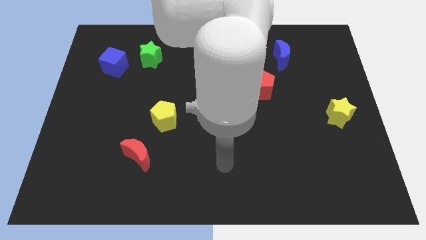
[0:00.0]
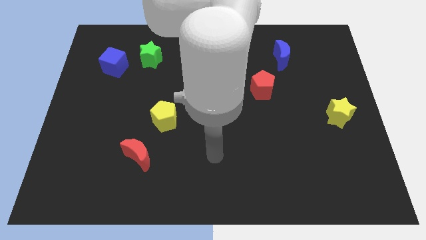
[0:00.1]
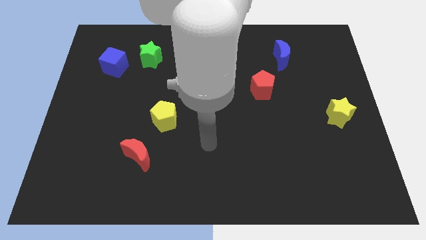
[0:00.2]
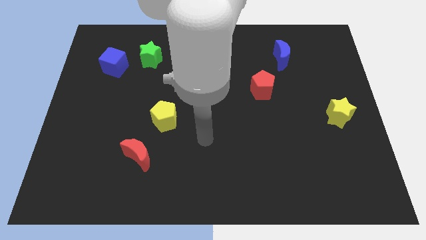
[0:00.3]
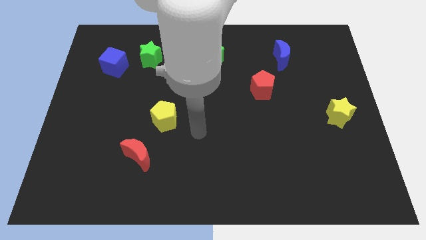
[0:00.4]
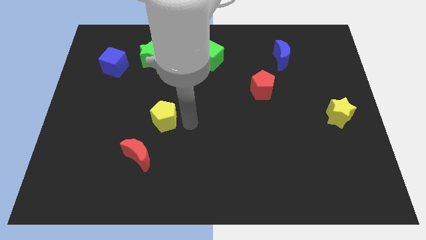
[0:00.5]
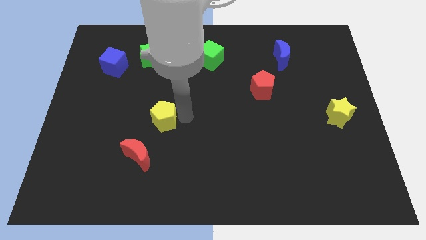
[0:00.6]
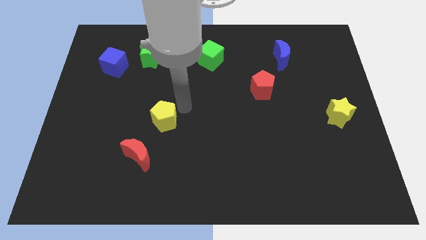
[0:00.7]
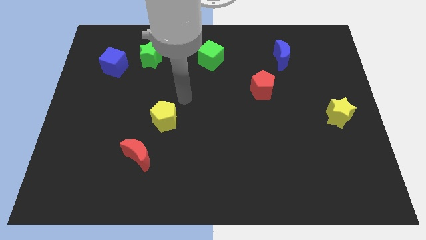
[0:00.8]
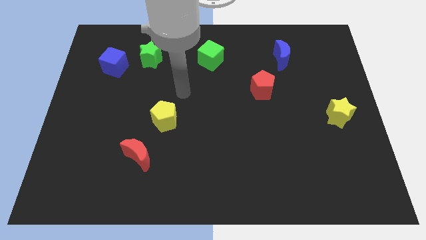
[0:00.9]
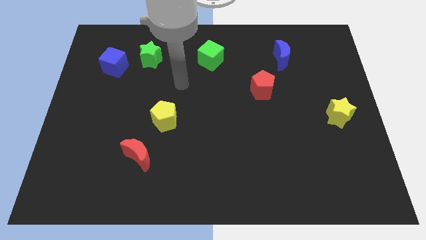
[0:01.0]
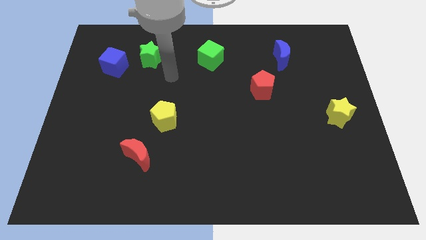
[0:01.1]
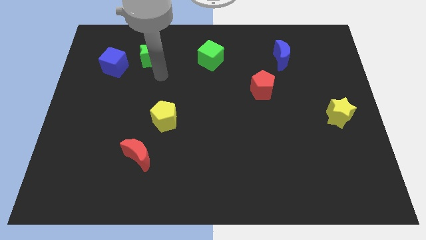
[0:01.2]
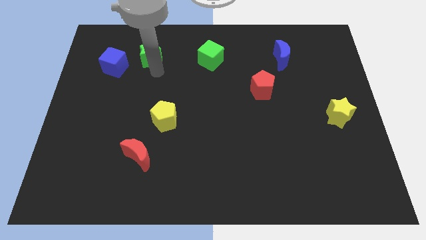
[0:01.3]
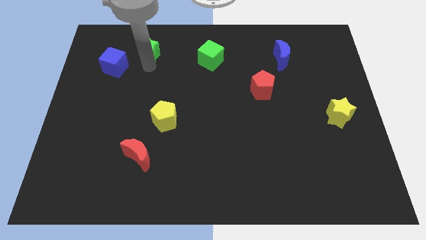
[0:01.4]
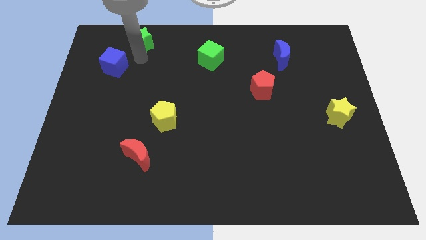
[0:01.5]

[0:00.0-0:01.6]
move the blue cube away from the green star

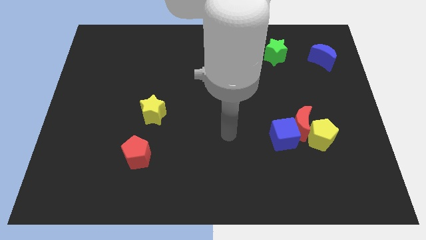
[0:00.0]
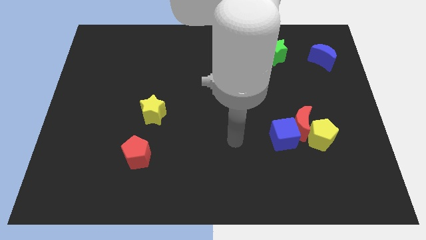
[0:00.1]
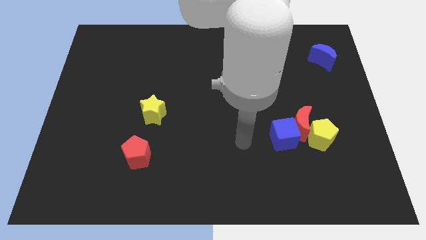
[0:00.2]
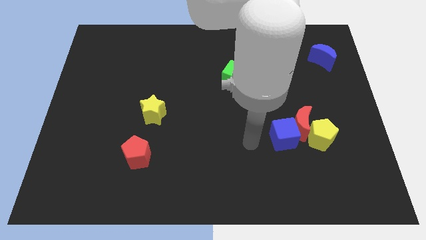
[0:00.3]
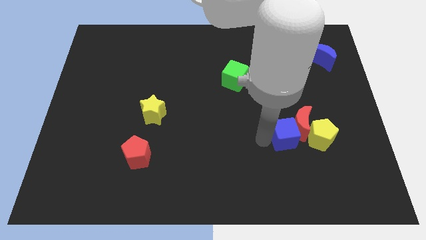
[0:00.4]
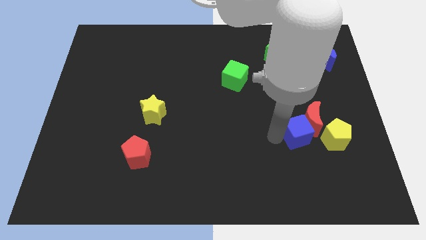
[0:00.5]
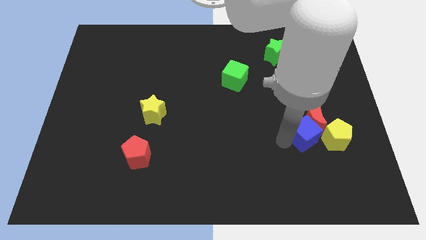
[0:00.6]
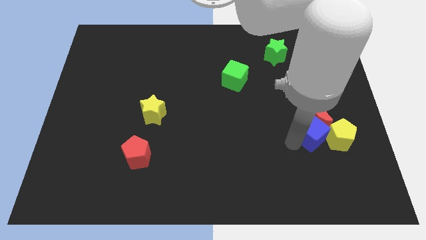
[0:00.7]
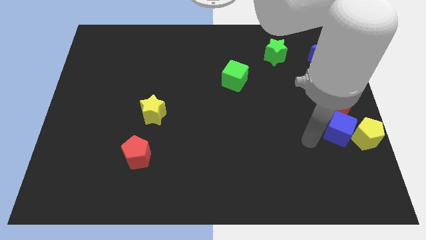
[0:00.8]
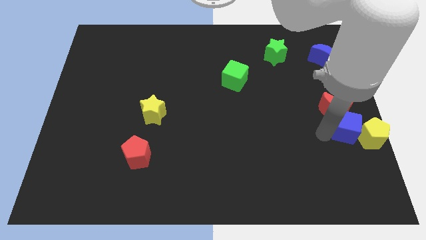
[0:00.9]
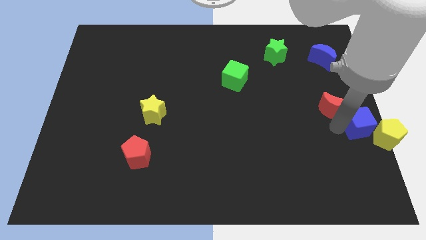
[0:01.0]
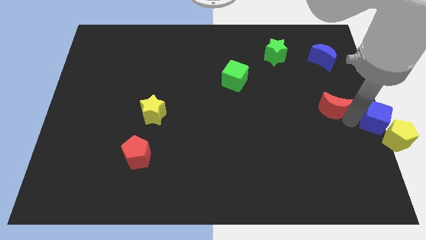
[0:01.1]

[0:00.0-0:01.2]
pull the red moon apart from the yellow pentagon and blue cube

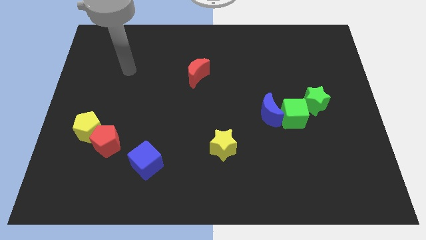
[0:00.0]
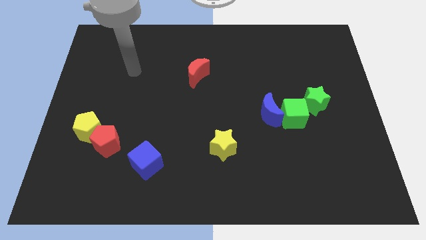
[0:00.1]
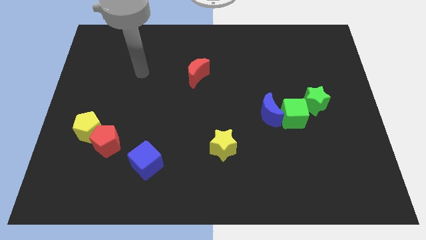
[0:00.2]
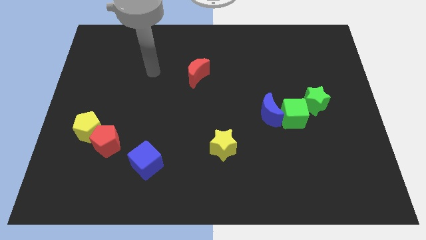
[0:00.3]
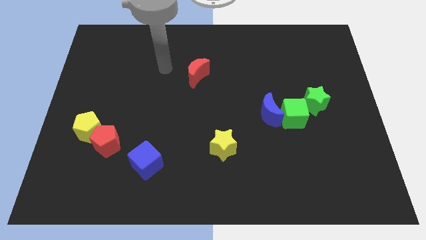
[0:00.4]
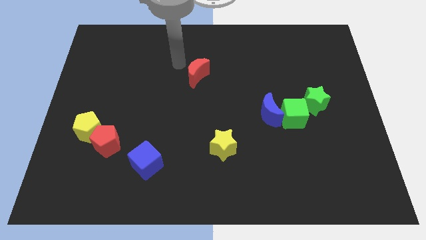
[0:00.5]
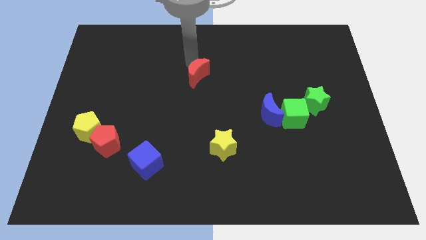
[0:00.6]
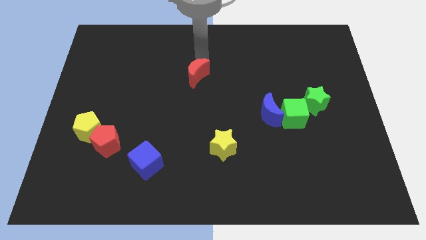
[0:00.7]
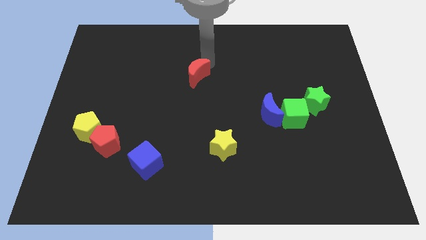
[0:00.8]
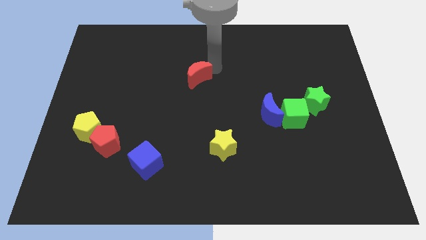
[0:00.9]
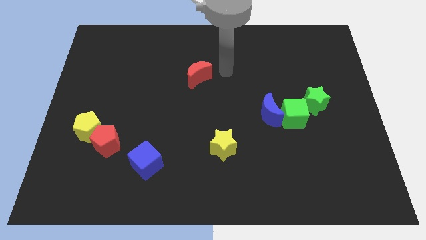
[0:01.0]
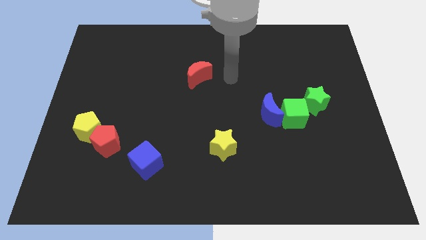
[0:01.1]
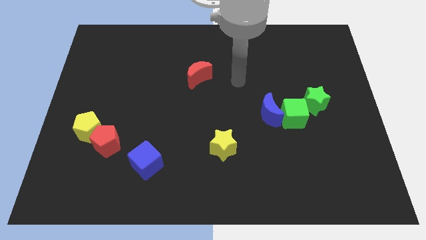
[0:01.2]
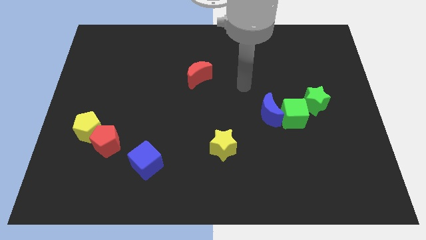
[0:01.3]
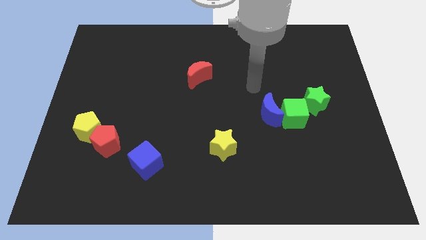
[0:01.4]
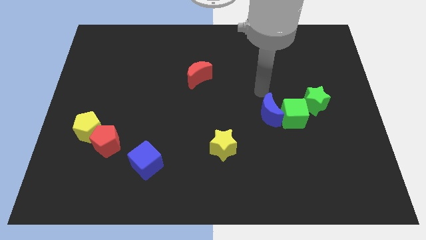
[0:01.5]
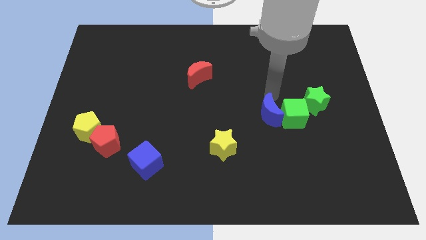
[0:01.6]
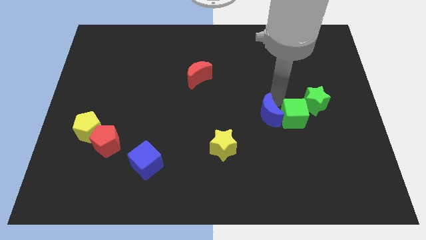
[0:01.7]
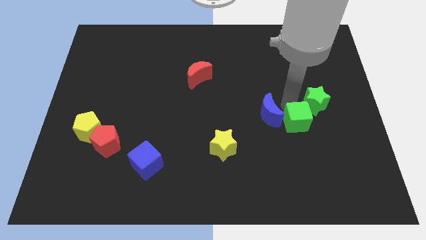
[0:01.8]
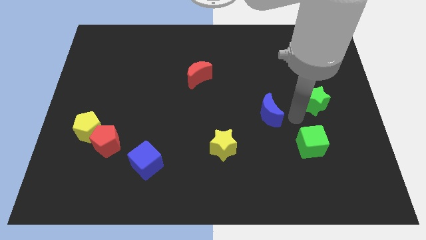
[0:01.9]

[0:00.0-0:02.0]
separate the blue moon from the green cube

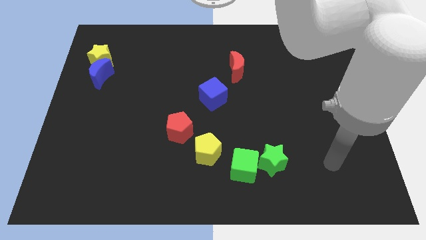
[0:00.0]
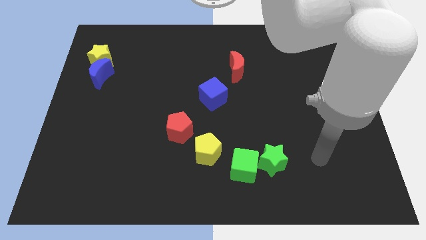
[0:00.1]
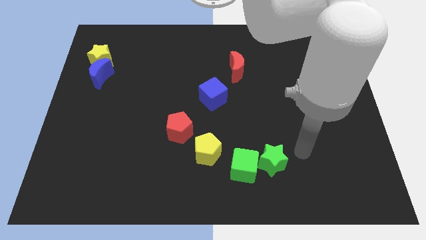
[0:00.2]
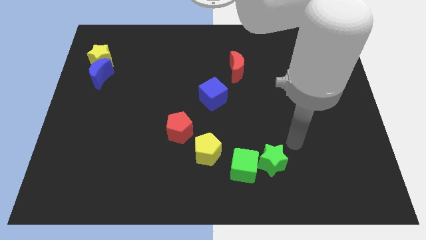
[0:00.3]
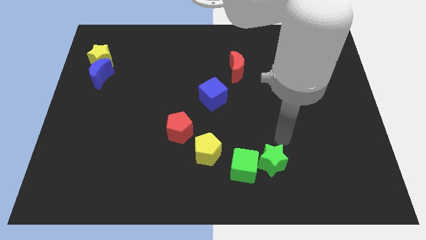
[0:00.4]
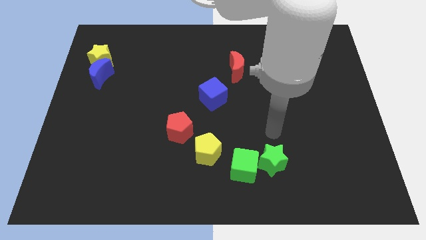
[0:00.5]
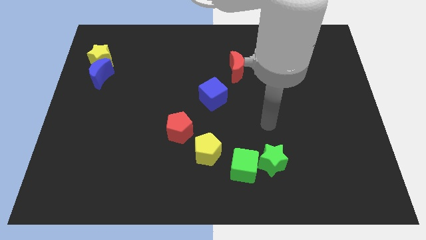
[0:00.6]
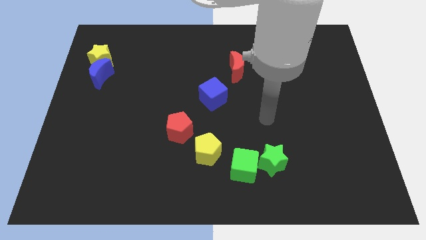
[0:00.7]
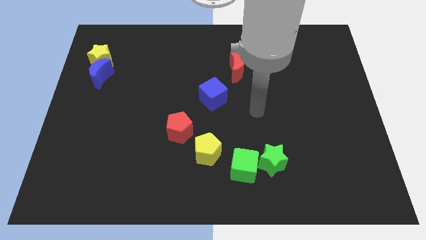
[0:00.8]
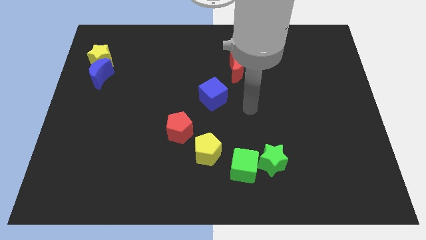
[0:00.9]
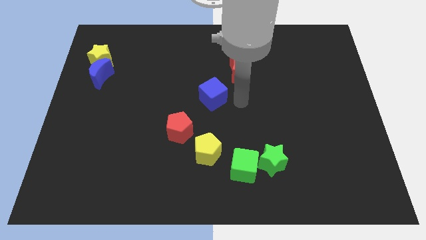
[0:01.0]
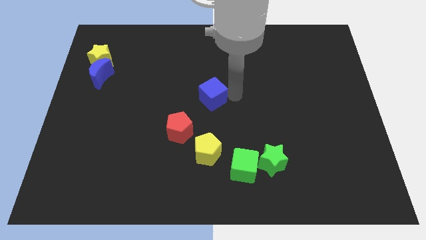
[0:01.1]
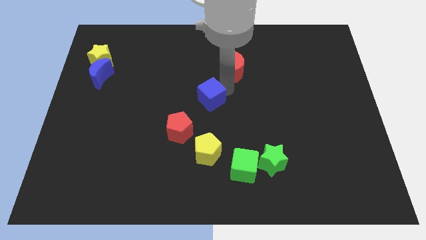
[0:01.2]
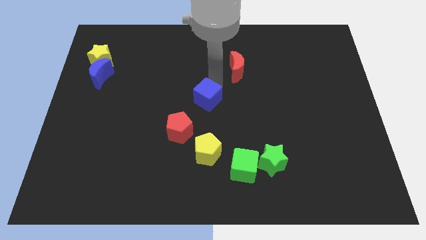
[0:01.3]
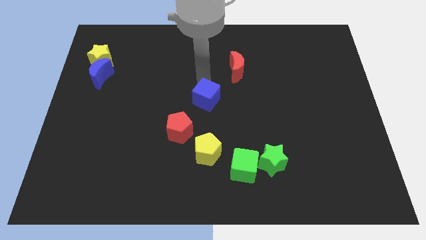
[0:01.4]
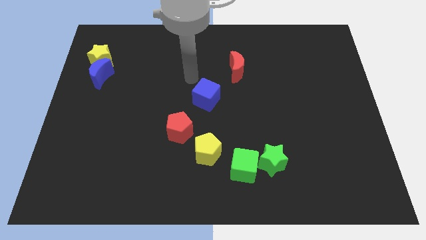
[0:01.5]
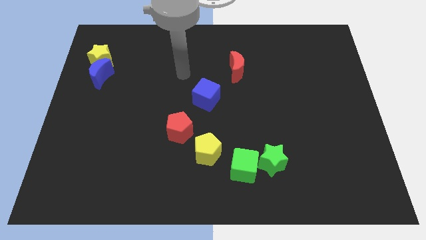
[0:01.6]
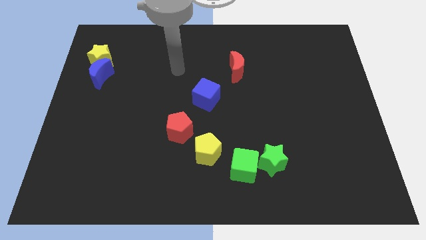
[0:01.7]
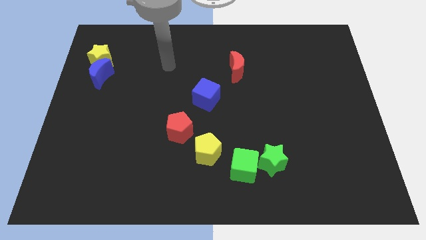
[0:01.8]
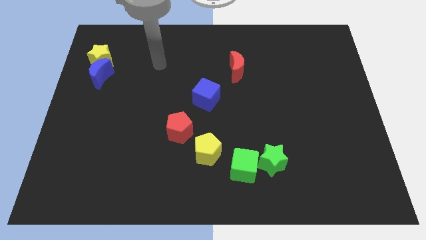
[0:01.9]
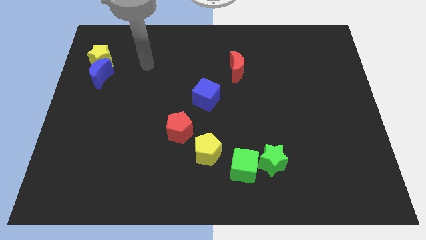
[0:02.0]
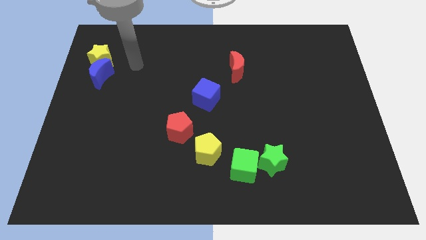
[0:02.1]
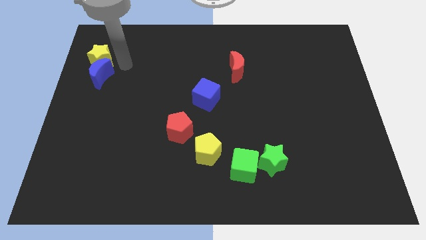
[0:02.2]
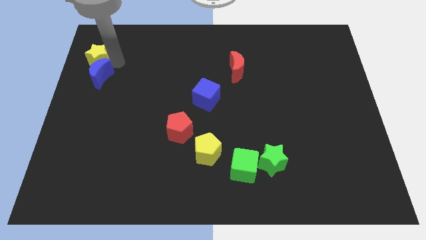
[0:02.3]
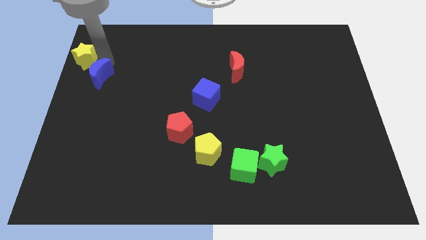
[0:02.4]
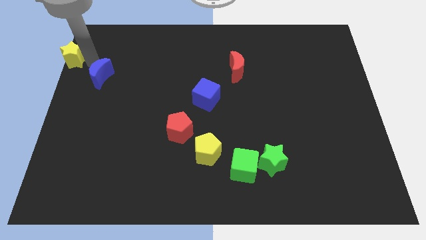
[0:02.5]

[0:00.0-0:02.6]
separate the blue moon from the yellow star

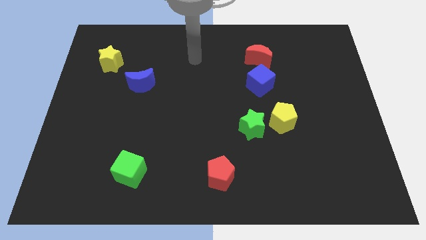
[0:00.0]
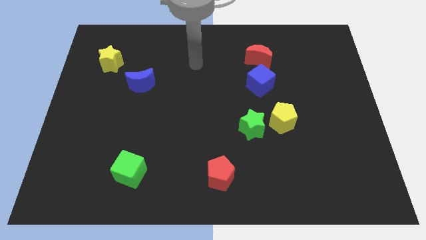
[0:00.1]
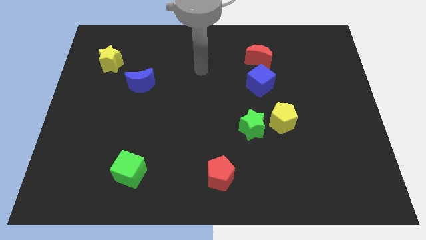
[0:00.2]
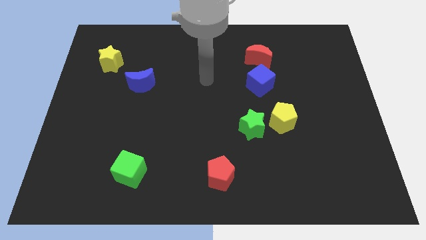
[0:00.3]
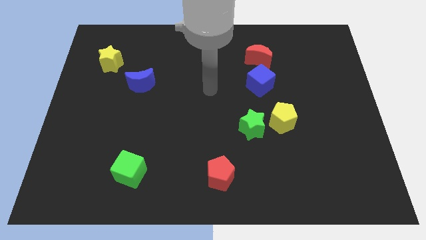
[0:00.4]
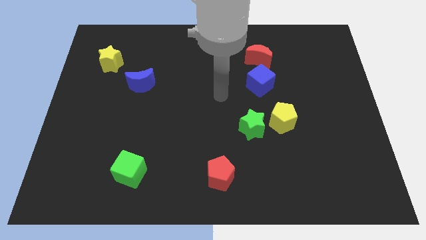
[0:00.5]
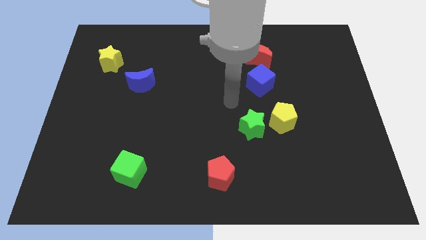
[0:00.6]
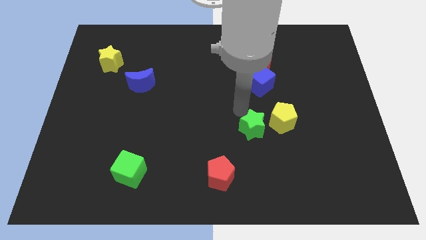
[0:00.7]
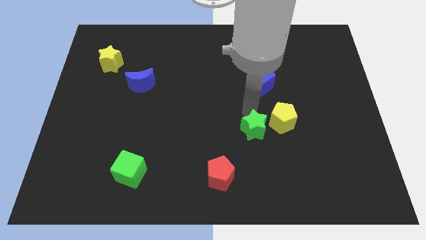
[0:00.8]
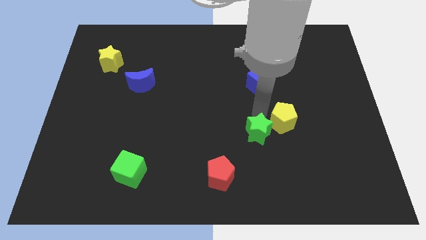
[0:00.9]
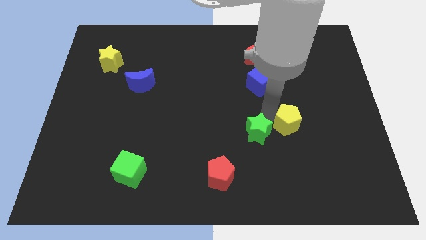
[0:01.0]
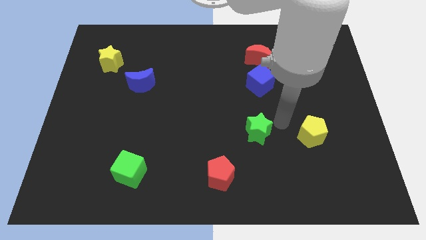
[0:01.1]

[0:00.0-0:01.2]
pull the green star apart from the yellow pentagon

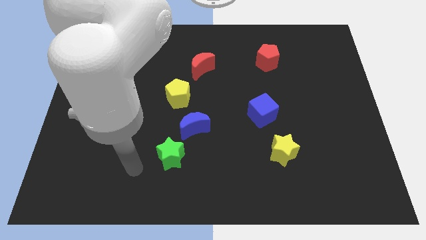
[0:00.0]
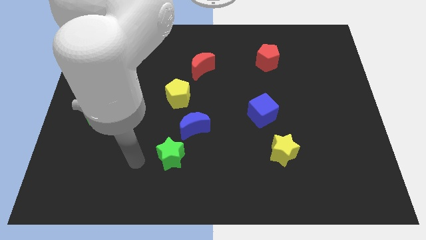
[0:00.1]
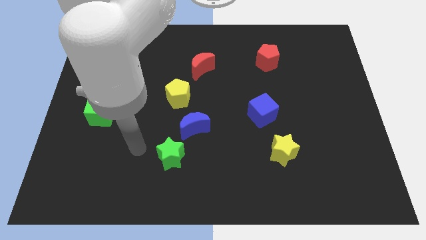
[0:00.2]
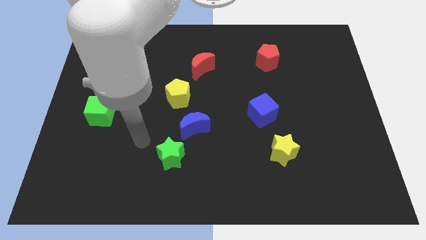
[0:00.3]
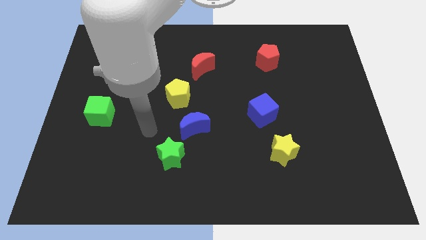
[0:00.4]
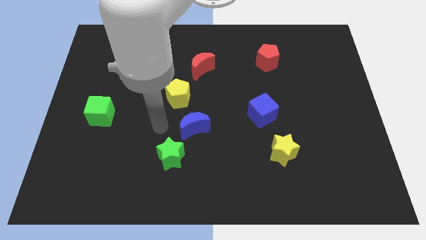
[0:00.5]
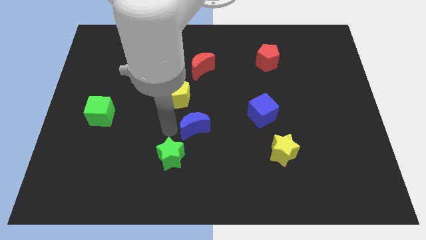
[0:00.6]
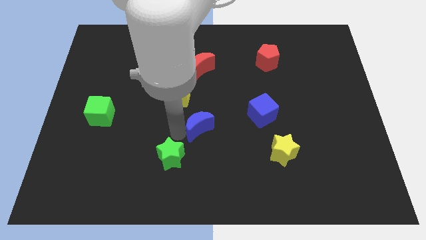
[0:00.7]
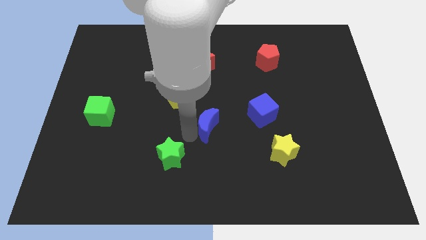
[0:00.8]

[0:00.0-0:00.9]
move the green star away from the blue moon
